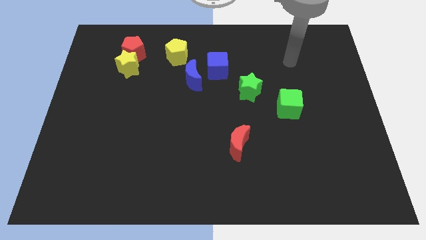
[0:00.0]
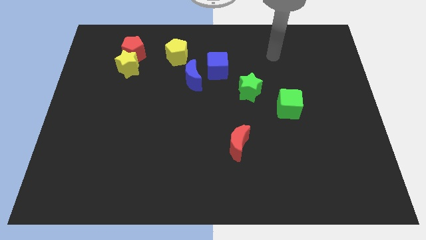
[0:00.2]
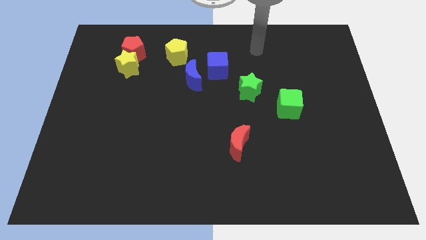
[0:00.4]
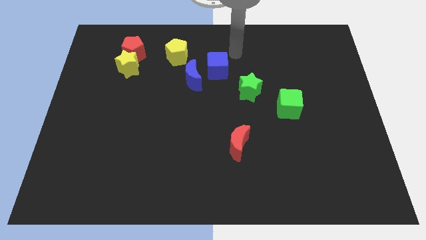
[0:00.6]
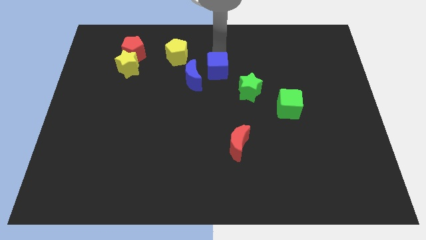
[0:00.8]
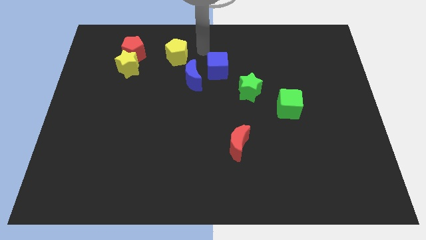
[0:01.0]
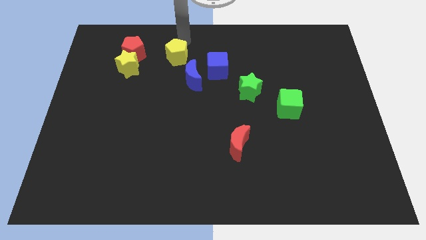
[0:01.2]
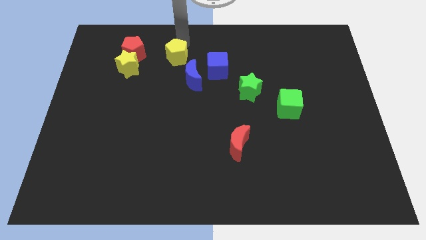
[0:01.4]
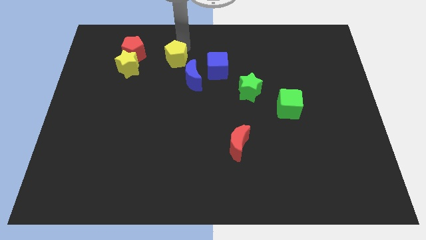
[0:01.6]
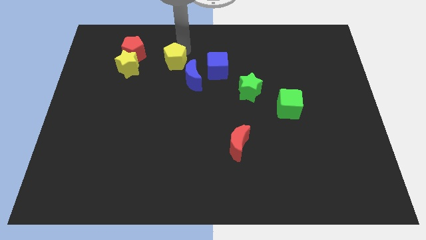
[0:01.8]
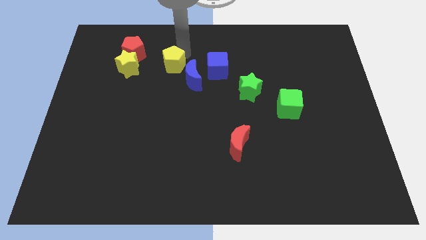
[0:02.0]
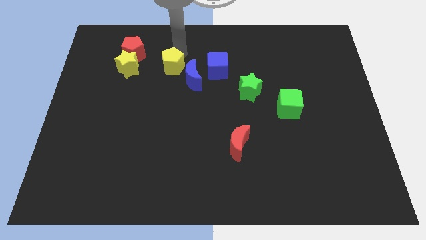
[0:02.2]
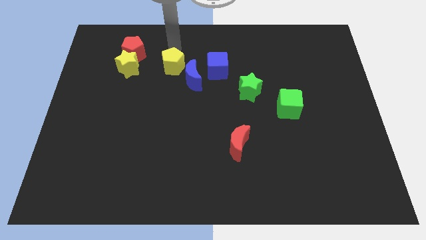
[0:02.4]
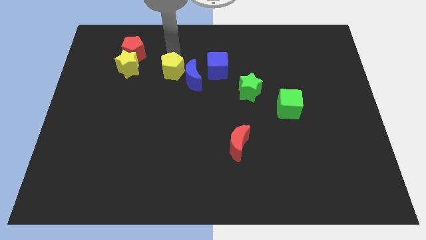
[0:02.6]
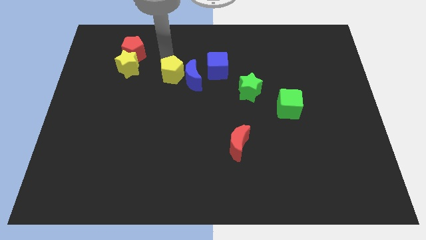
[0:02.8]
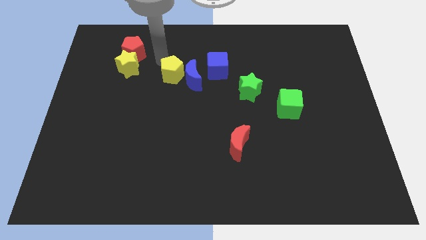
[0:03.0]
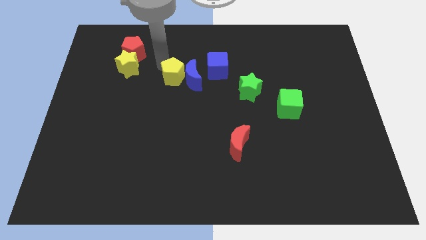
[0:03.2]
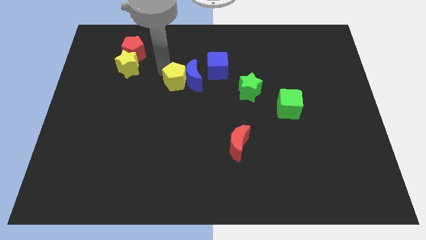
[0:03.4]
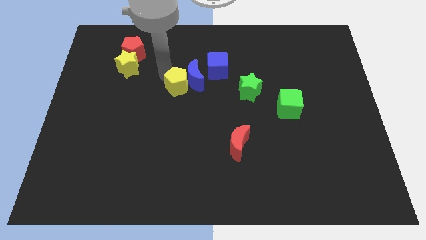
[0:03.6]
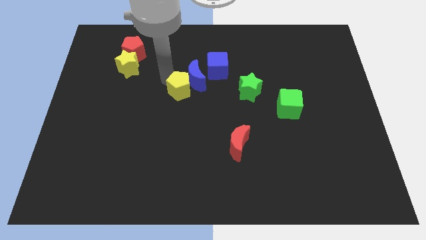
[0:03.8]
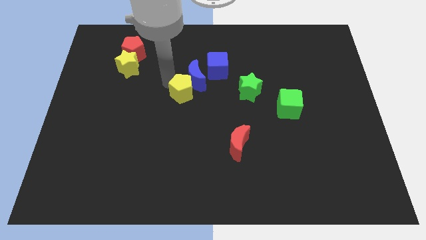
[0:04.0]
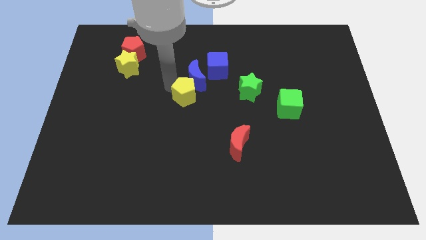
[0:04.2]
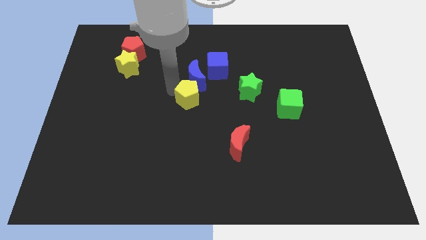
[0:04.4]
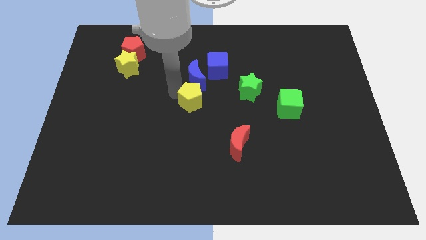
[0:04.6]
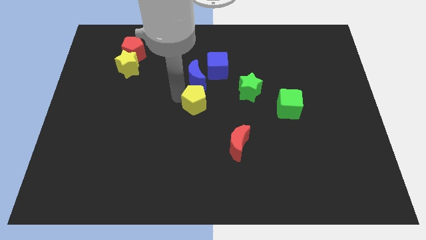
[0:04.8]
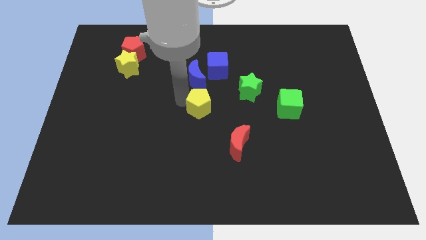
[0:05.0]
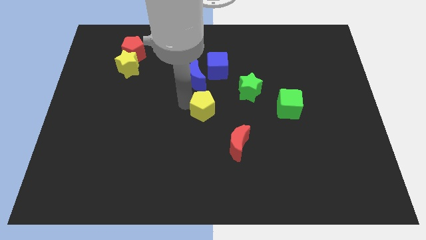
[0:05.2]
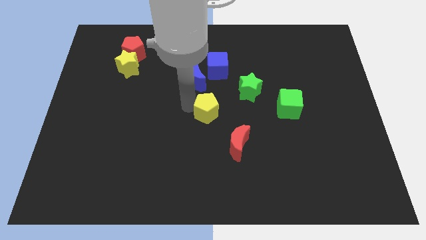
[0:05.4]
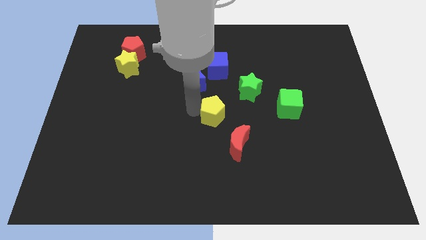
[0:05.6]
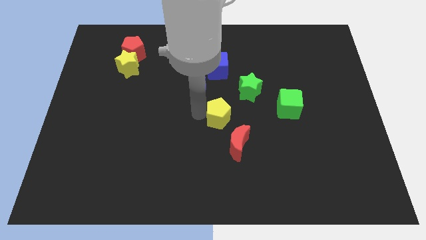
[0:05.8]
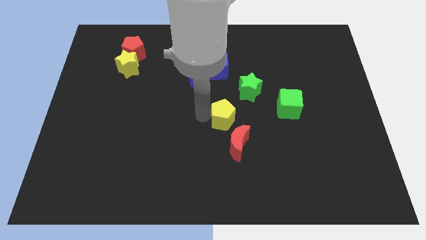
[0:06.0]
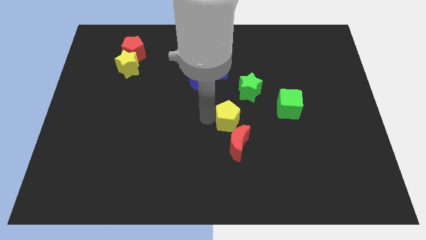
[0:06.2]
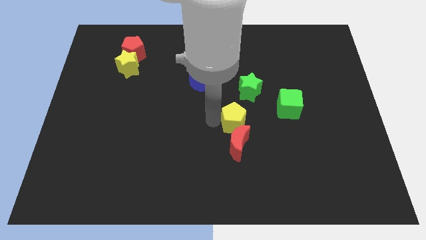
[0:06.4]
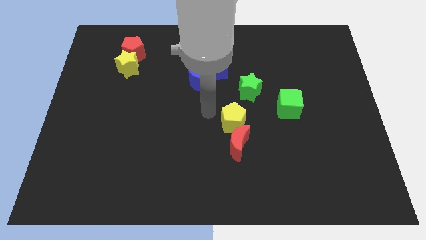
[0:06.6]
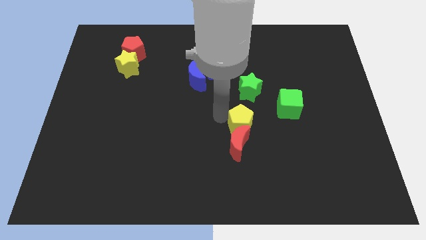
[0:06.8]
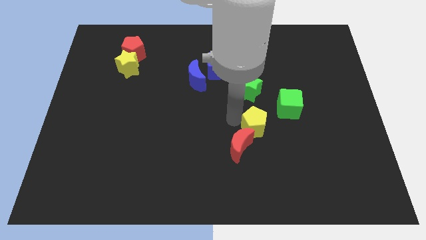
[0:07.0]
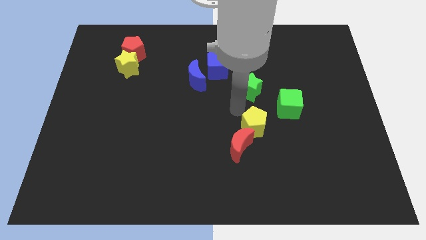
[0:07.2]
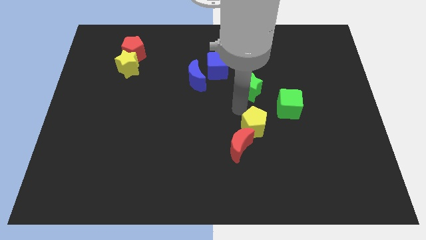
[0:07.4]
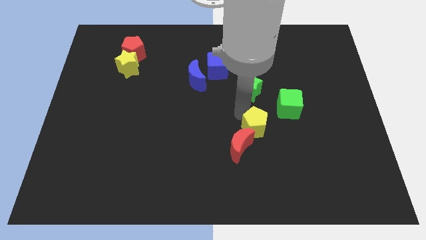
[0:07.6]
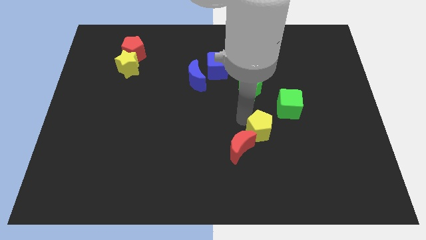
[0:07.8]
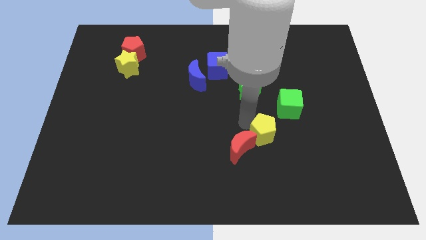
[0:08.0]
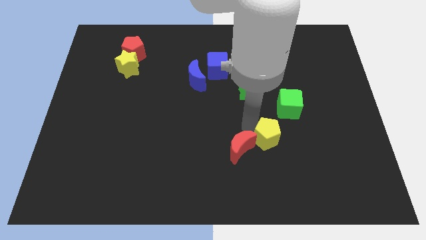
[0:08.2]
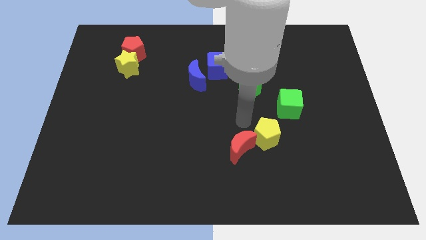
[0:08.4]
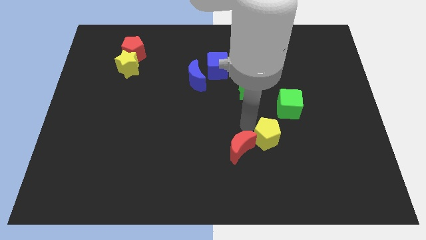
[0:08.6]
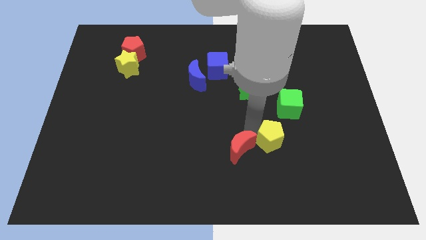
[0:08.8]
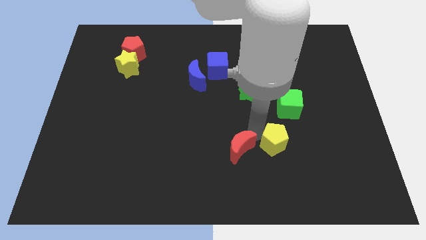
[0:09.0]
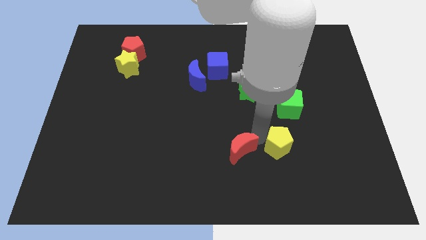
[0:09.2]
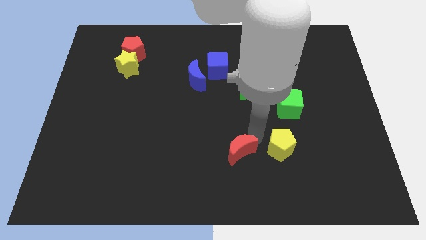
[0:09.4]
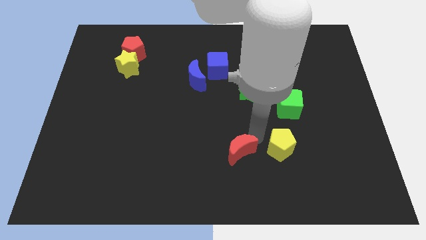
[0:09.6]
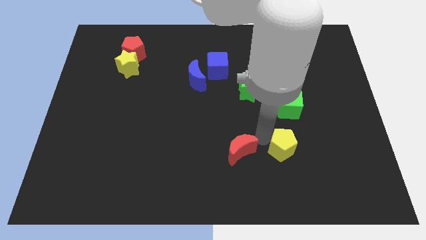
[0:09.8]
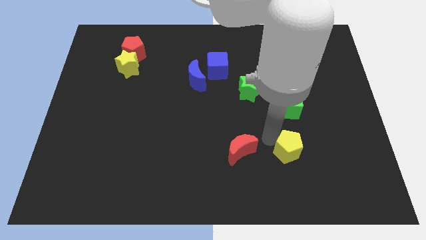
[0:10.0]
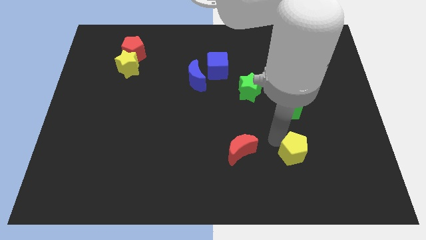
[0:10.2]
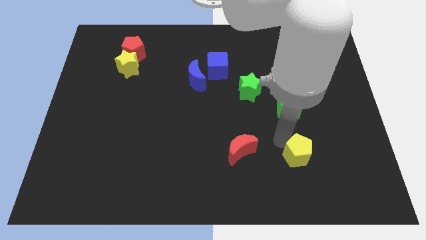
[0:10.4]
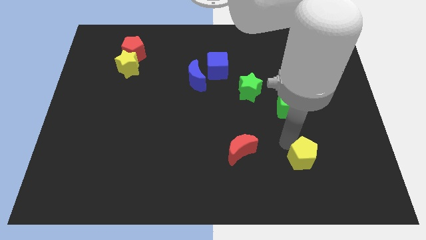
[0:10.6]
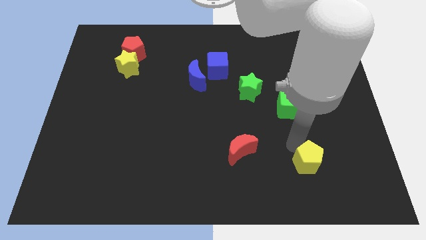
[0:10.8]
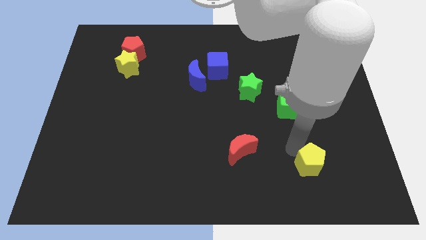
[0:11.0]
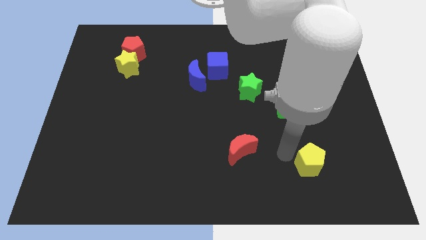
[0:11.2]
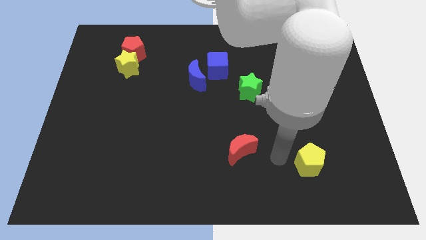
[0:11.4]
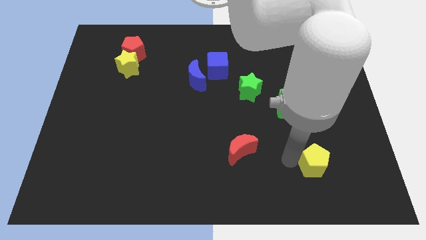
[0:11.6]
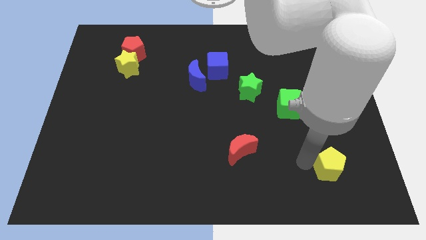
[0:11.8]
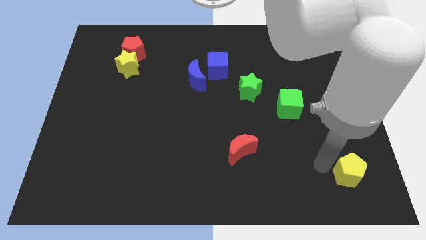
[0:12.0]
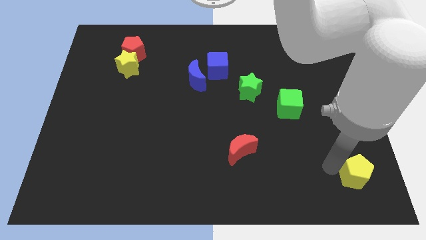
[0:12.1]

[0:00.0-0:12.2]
push the yellow pentagon to the bottom right corner
